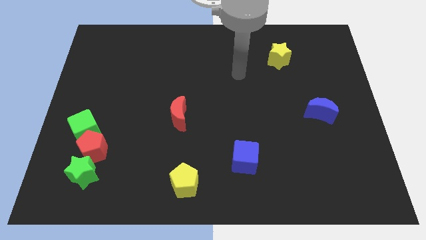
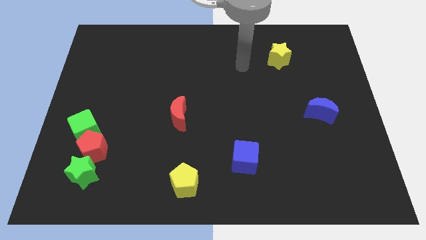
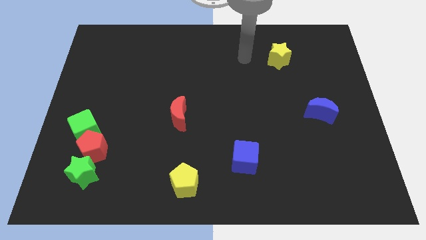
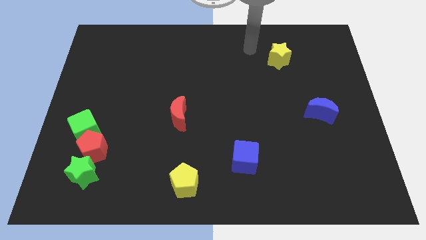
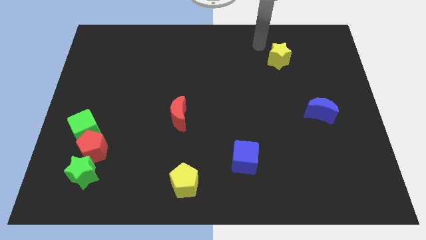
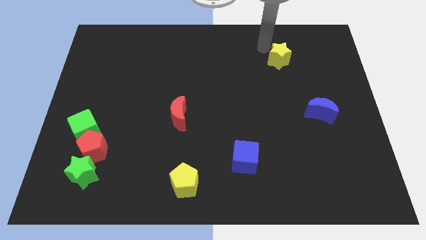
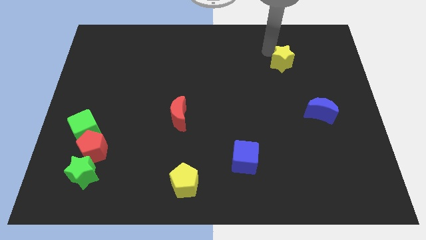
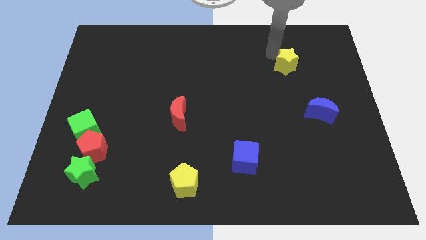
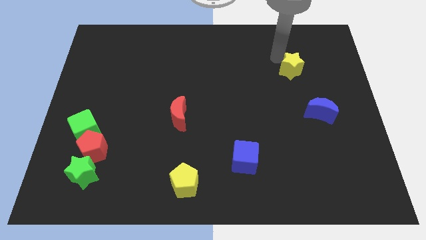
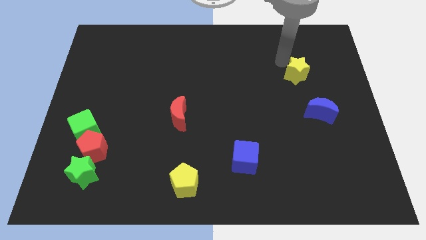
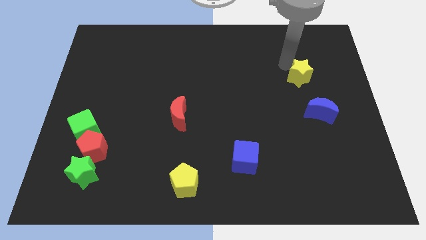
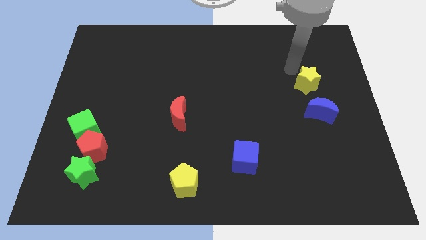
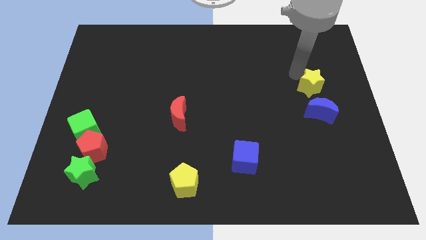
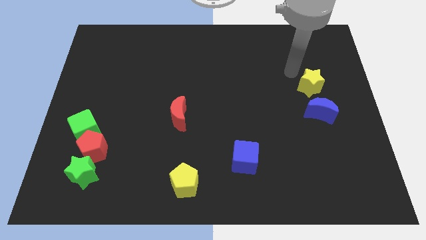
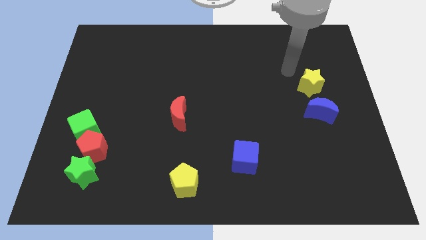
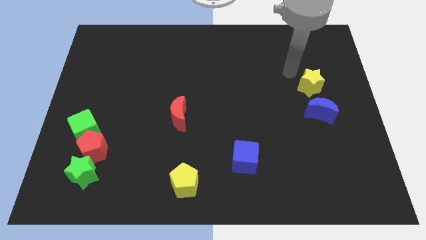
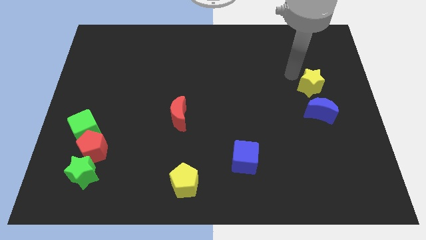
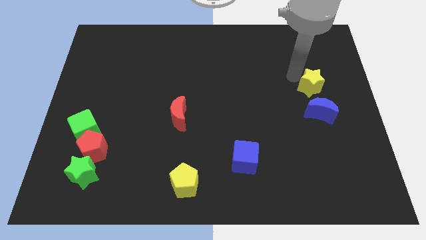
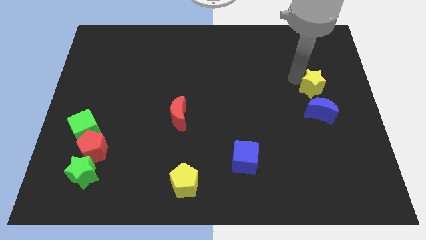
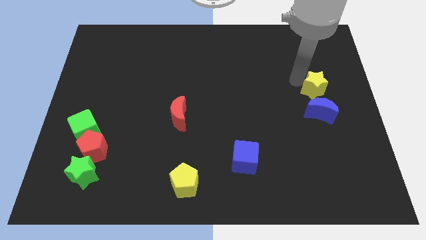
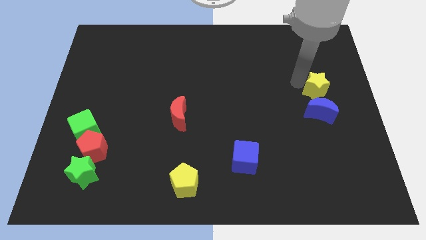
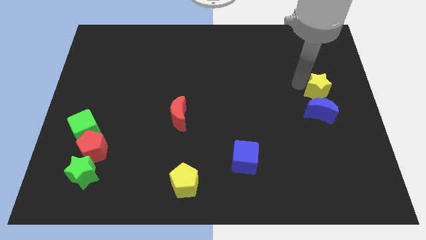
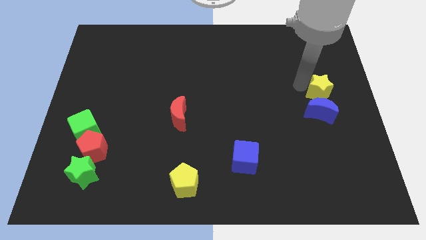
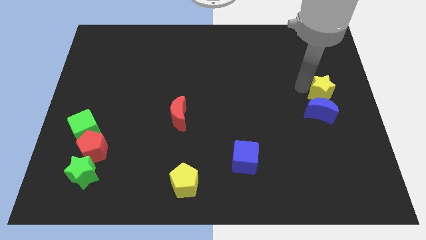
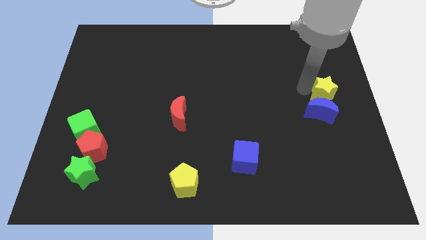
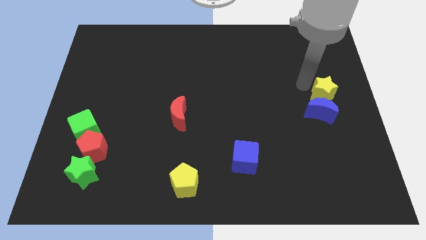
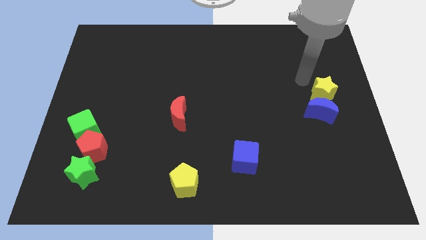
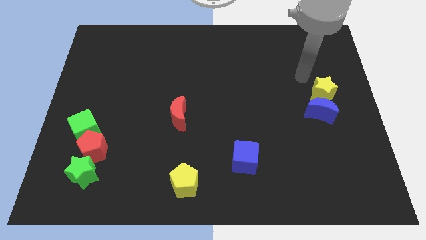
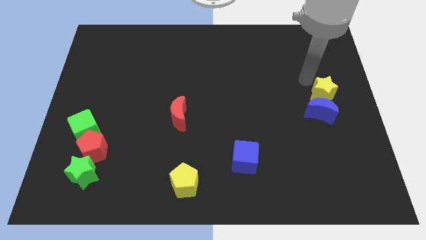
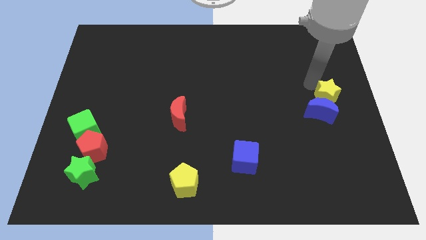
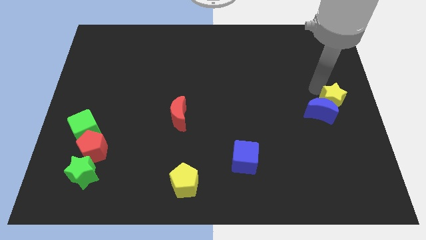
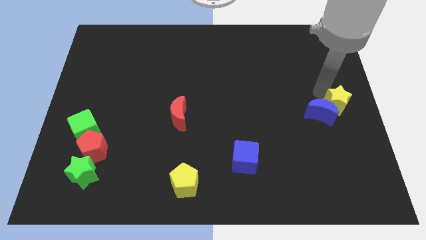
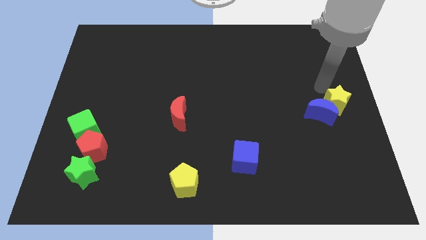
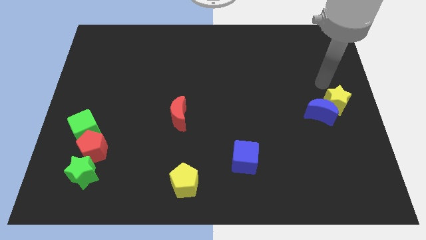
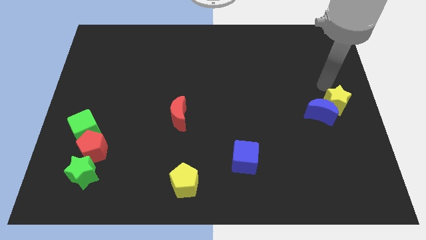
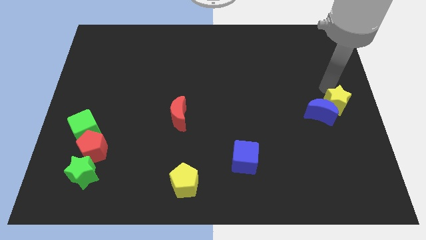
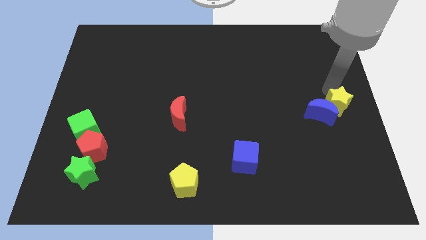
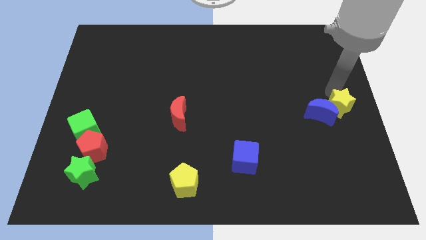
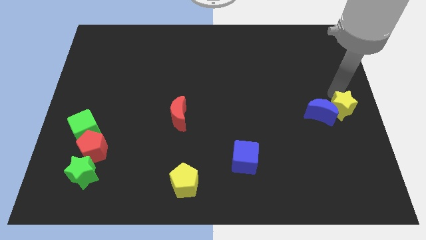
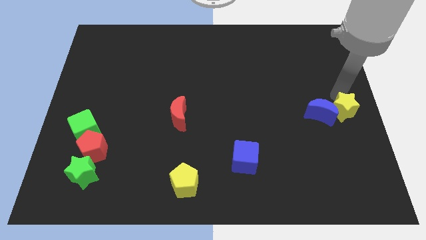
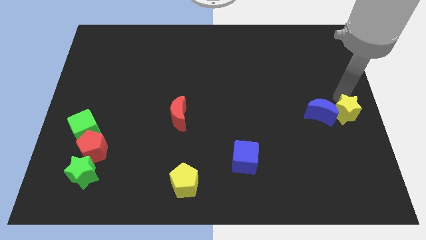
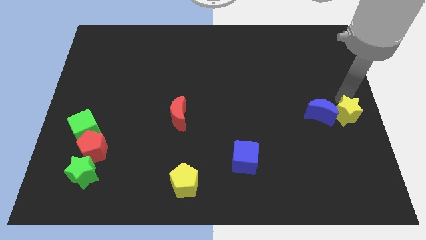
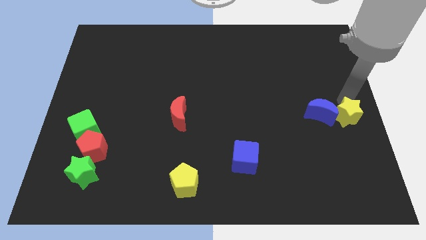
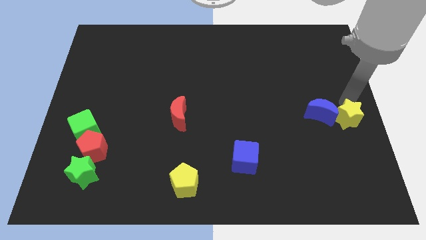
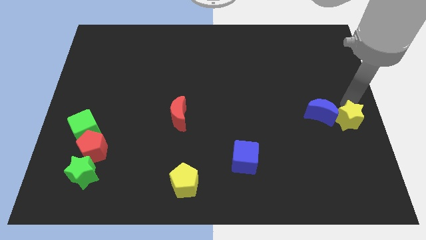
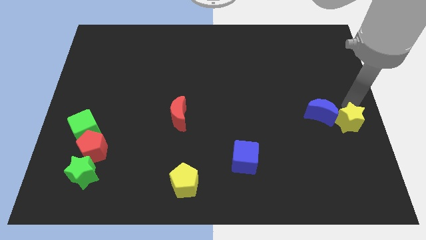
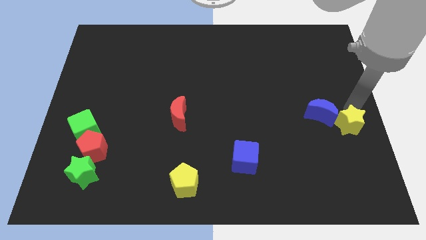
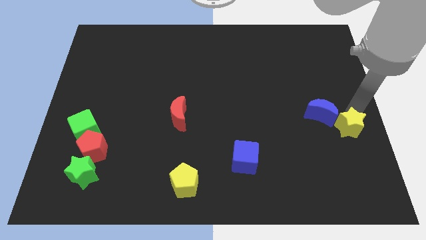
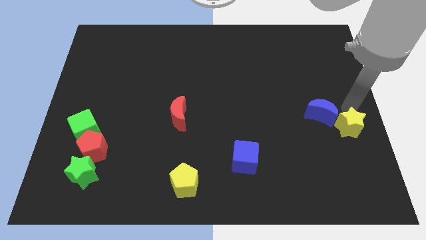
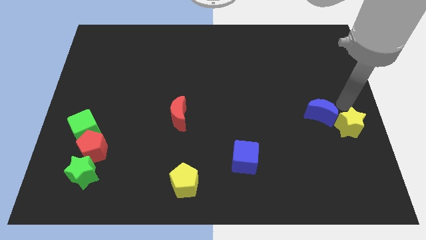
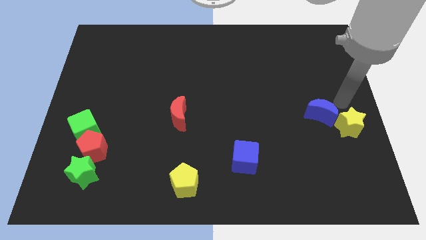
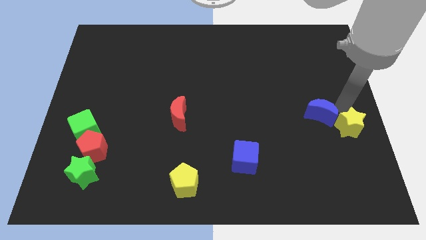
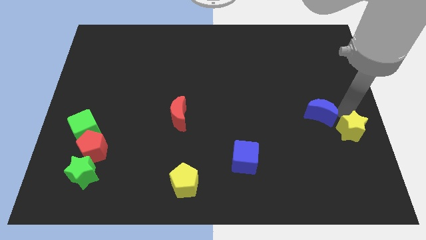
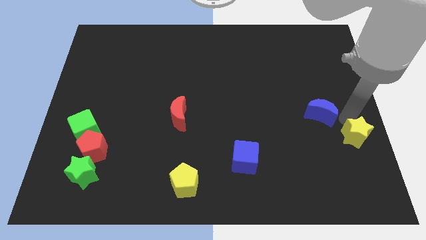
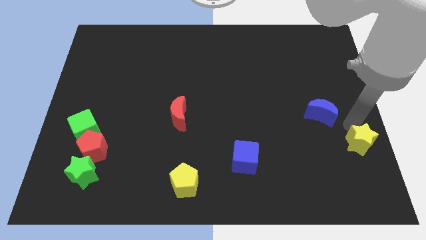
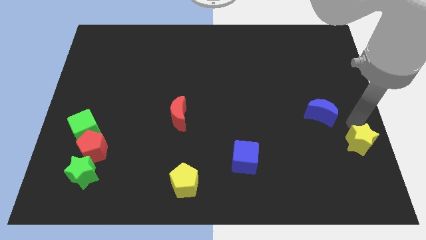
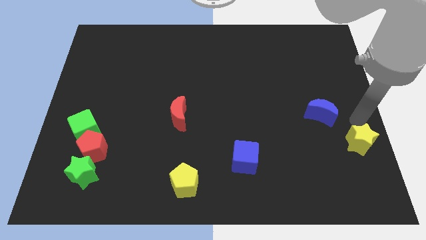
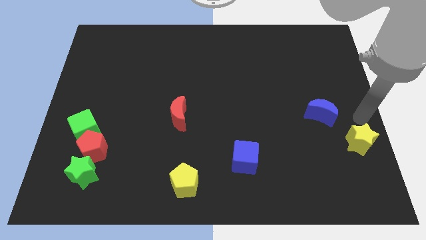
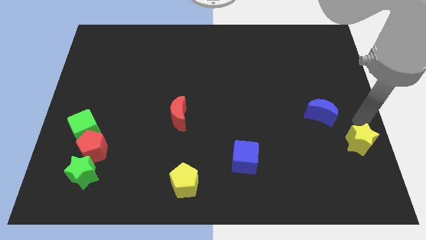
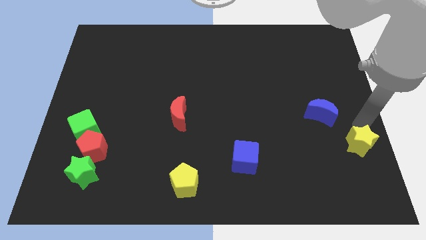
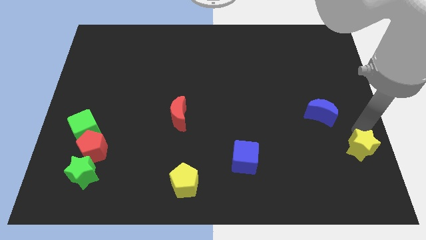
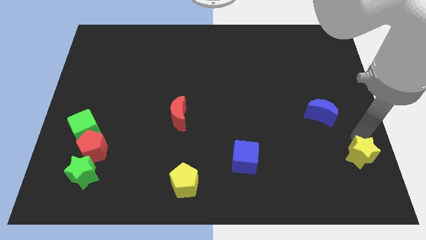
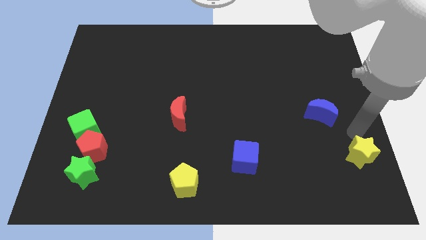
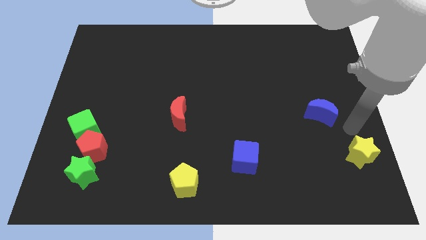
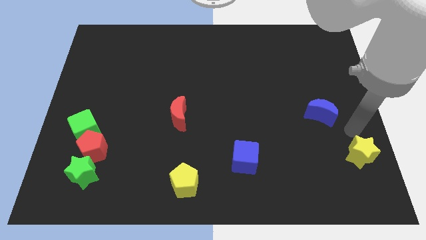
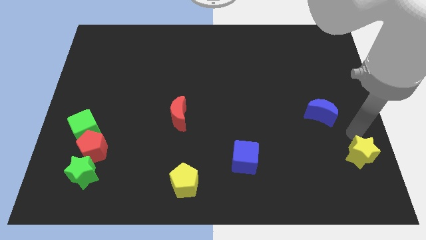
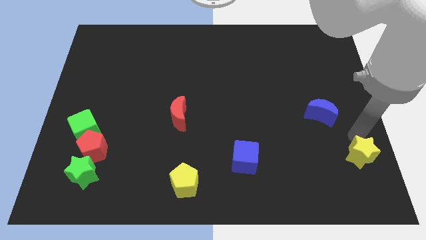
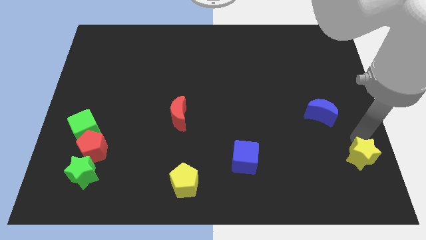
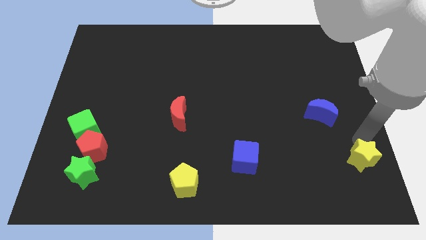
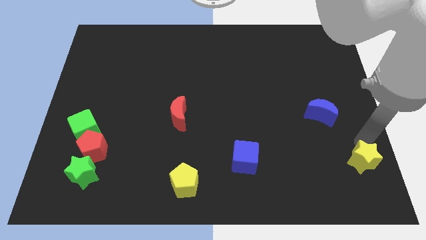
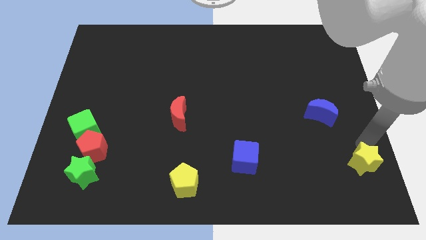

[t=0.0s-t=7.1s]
move the yellow star to the lower right corner

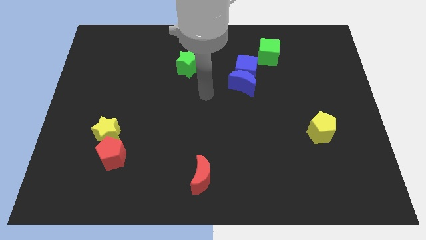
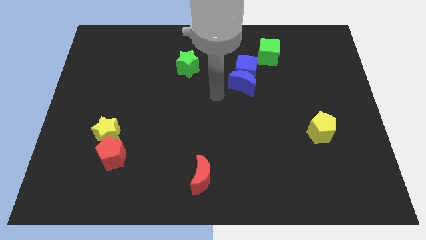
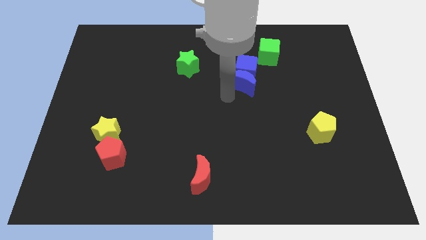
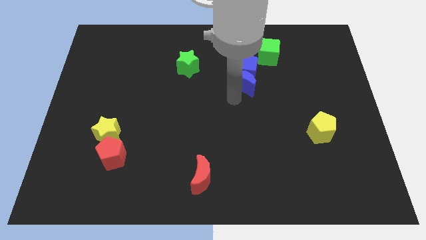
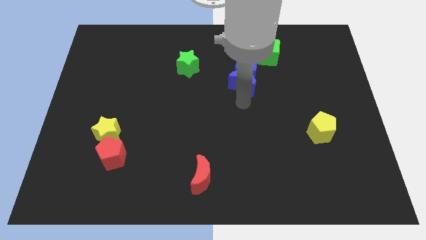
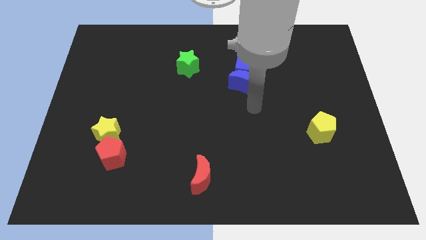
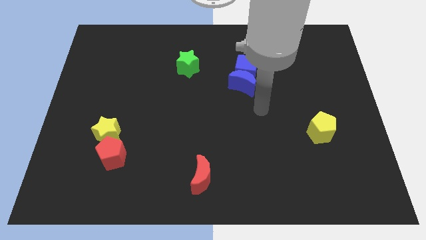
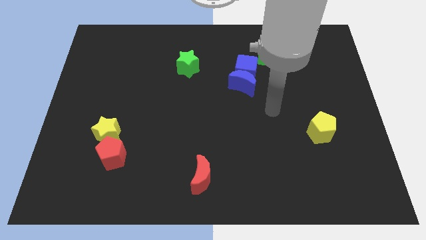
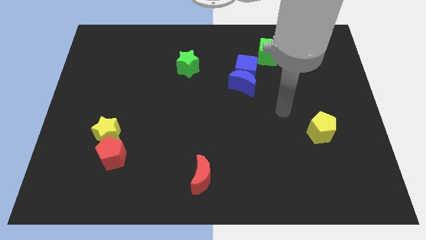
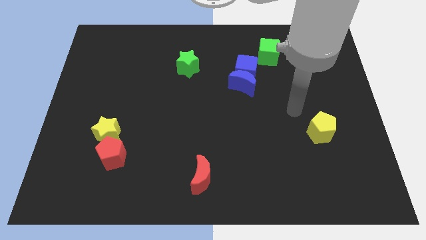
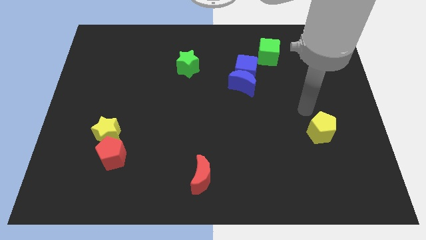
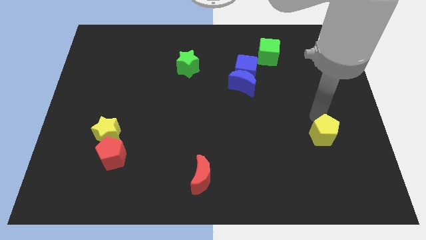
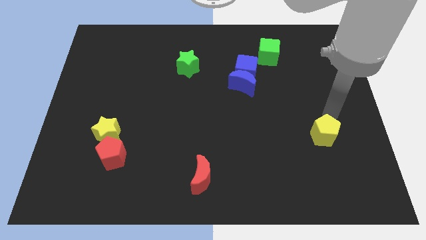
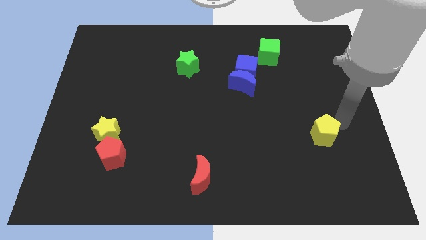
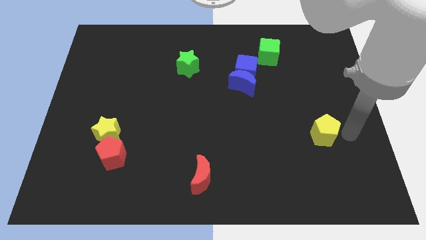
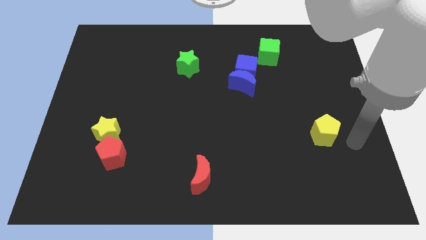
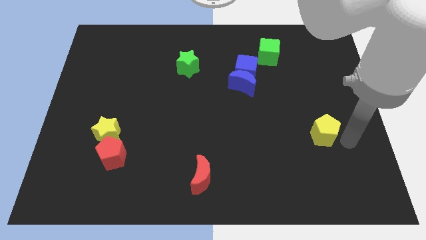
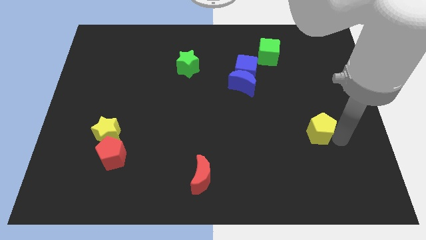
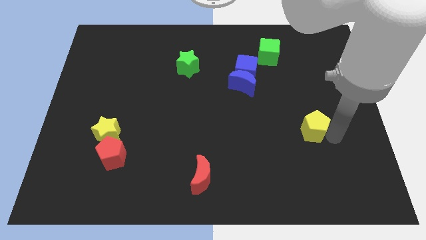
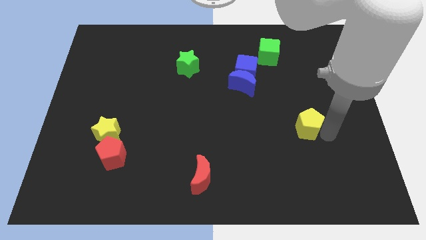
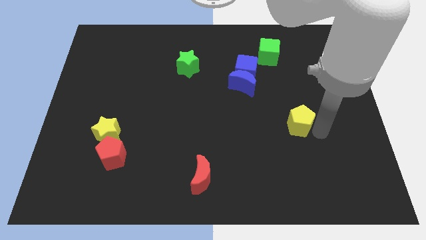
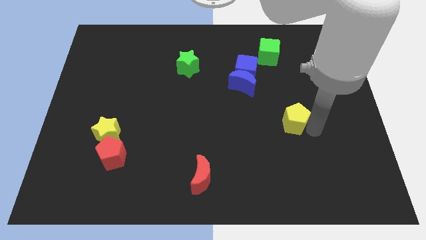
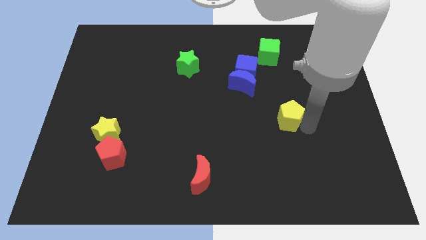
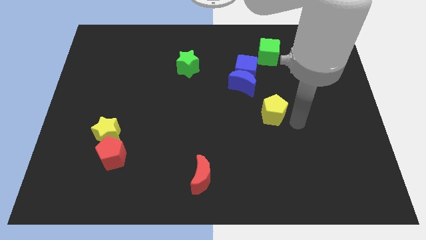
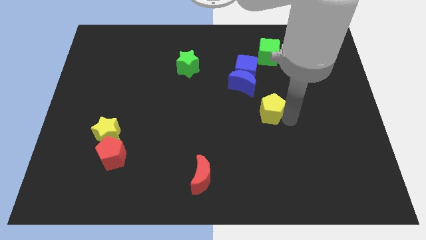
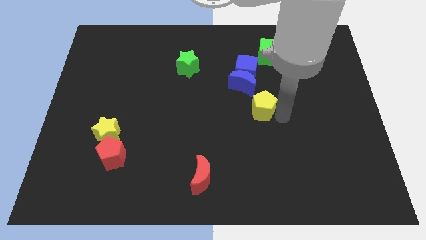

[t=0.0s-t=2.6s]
move the yellow pentagon to the center of the board
